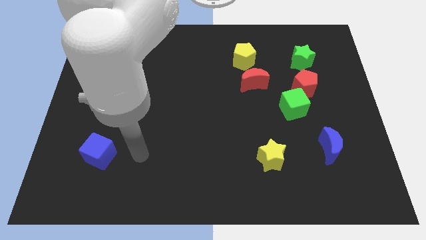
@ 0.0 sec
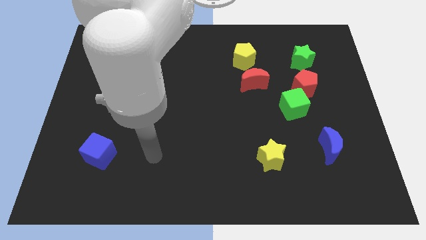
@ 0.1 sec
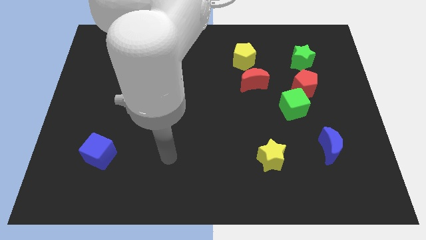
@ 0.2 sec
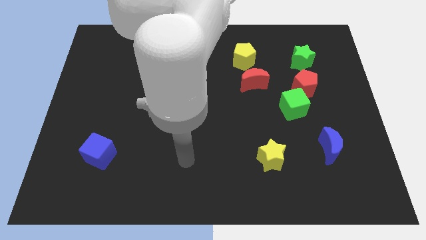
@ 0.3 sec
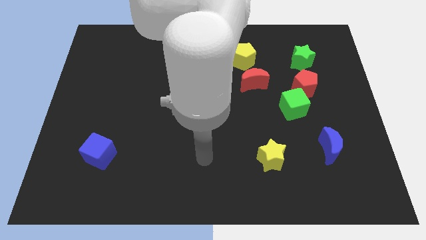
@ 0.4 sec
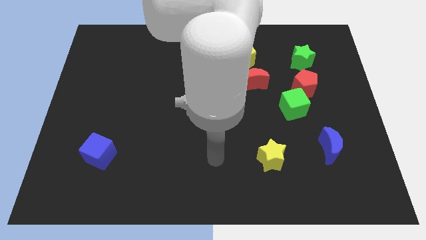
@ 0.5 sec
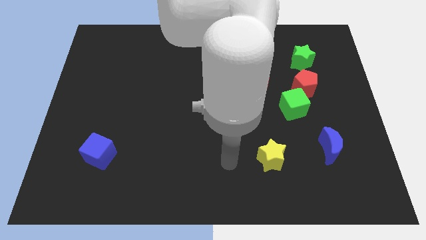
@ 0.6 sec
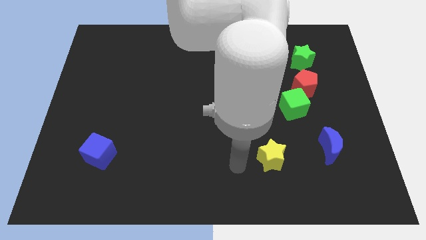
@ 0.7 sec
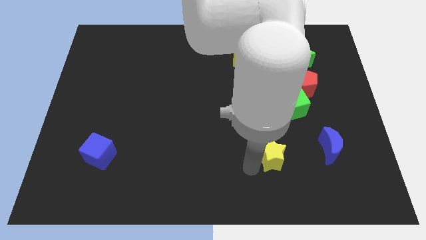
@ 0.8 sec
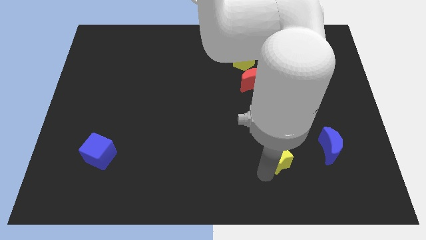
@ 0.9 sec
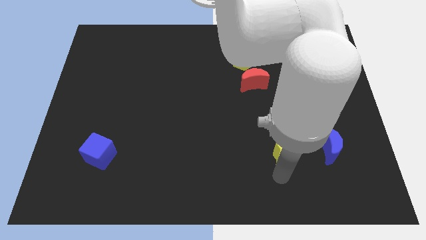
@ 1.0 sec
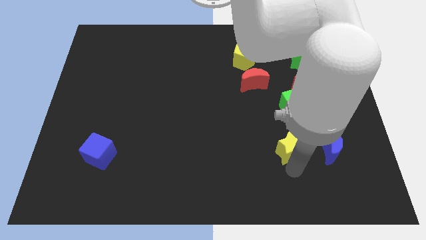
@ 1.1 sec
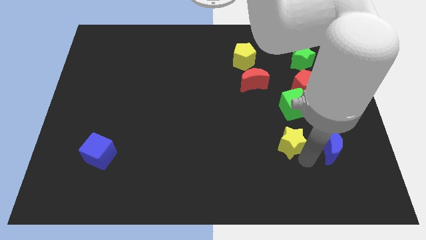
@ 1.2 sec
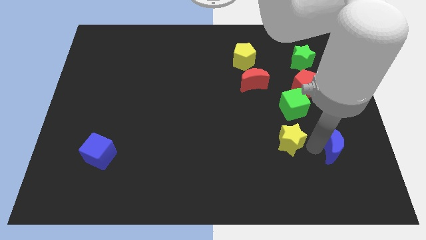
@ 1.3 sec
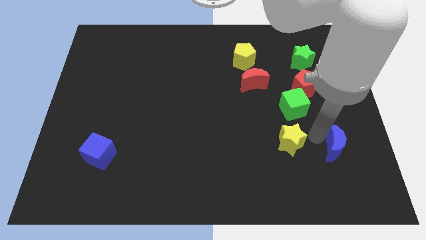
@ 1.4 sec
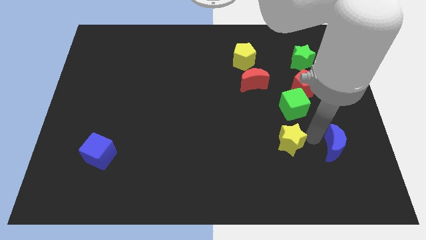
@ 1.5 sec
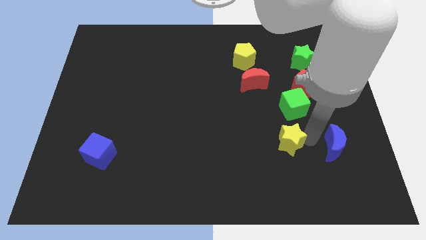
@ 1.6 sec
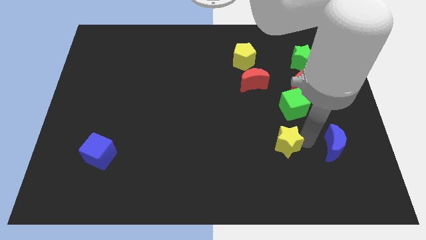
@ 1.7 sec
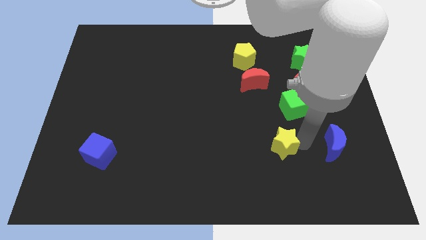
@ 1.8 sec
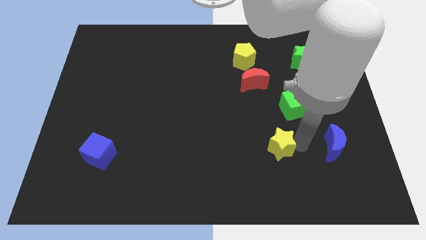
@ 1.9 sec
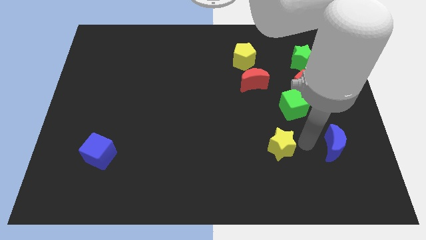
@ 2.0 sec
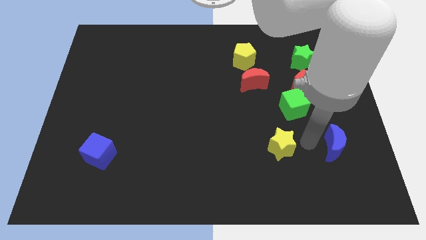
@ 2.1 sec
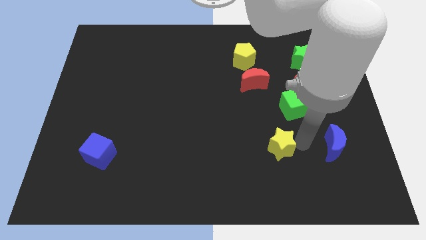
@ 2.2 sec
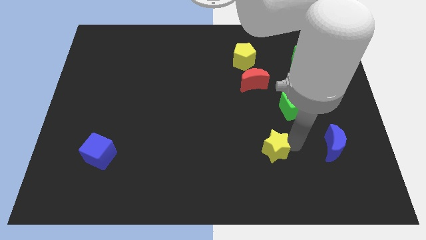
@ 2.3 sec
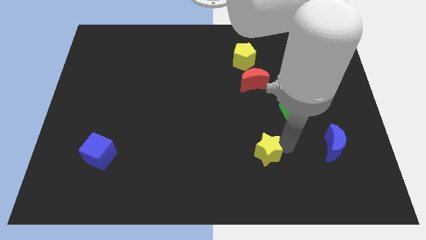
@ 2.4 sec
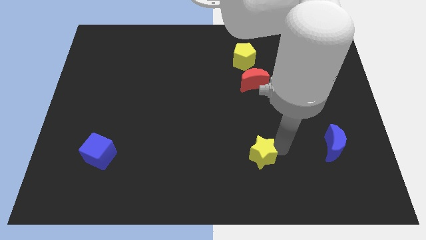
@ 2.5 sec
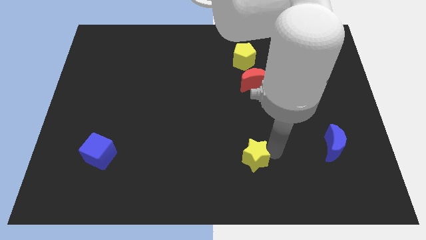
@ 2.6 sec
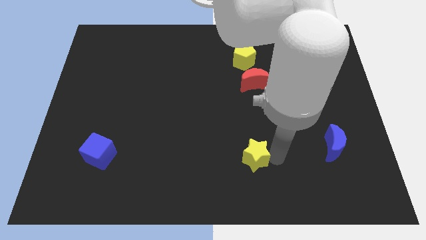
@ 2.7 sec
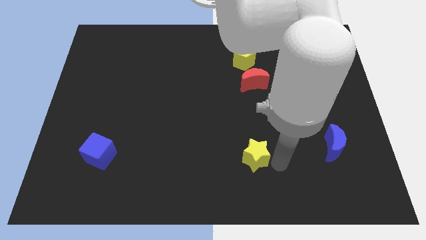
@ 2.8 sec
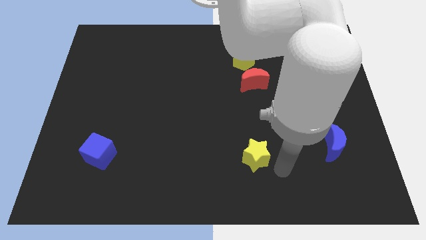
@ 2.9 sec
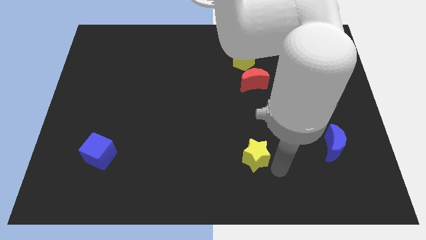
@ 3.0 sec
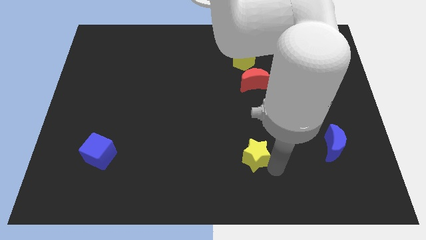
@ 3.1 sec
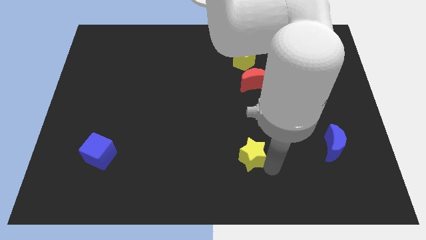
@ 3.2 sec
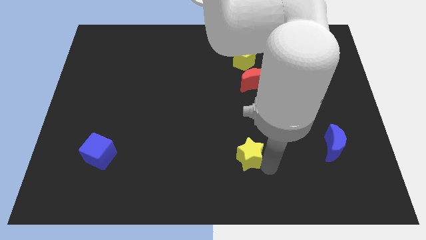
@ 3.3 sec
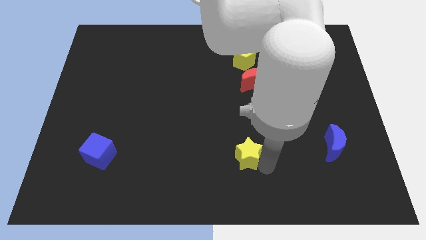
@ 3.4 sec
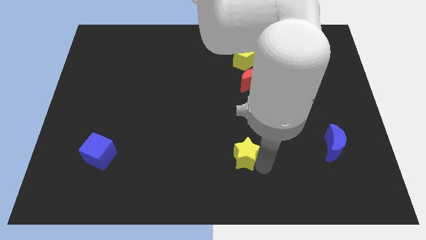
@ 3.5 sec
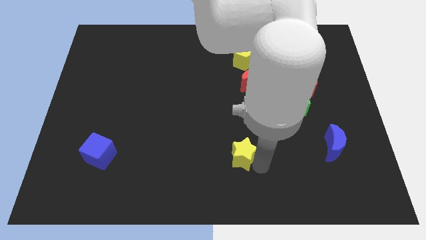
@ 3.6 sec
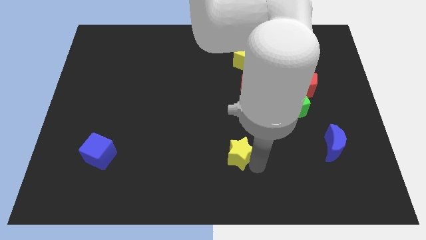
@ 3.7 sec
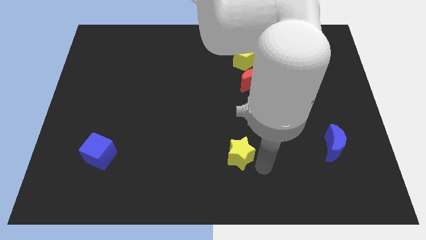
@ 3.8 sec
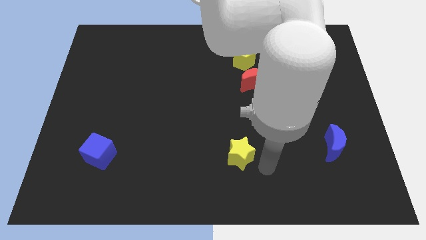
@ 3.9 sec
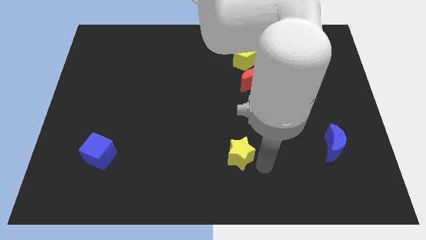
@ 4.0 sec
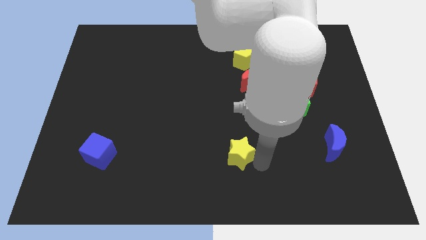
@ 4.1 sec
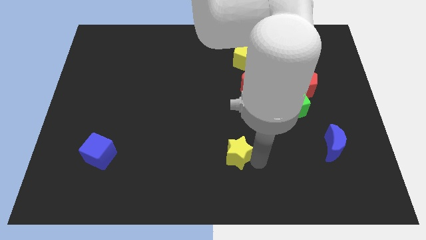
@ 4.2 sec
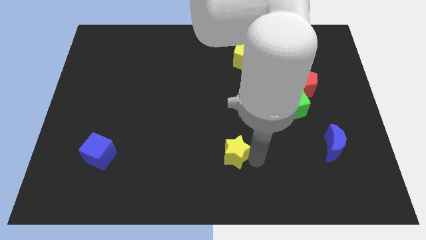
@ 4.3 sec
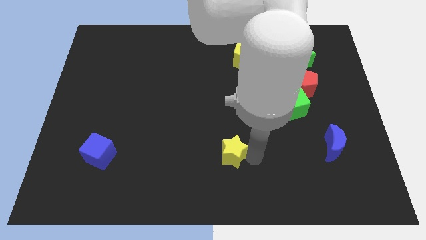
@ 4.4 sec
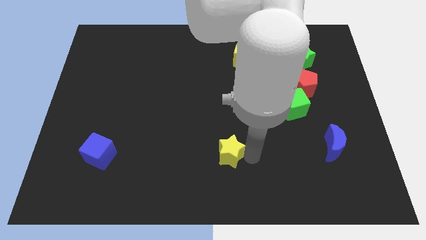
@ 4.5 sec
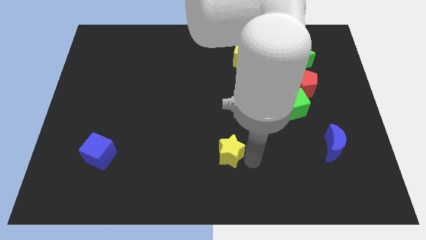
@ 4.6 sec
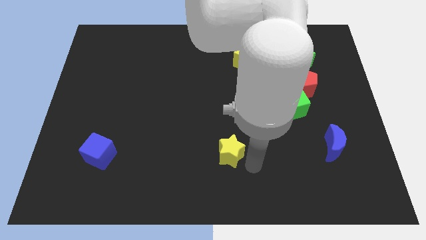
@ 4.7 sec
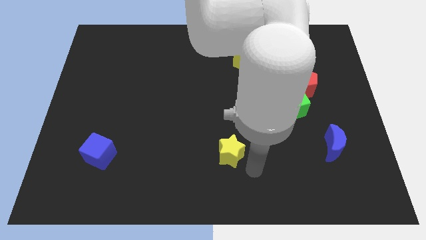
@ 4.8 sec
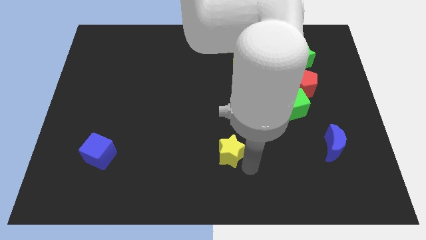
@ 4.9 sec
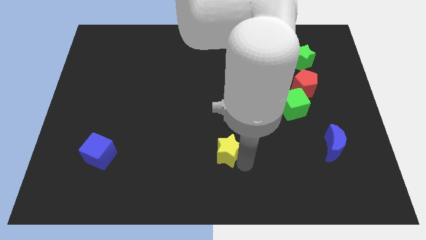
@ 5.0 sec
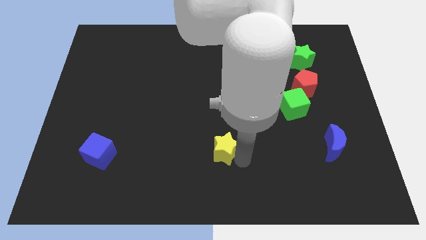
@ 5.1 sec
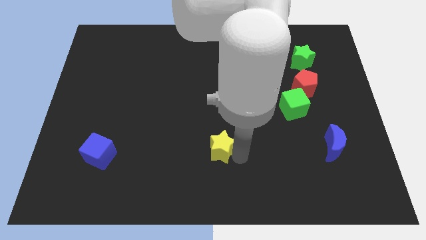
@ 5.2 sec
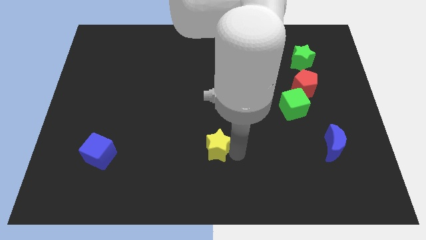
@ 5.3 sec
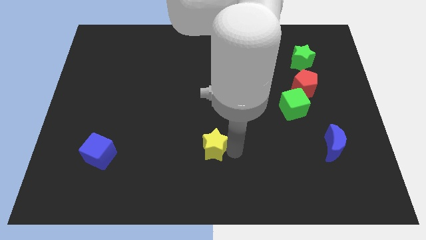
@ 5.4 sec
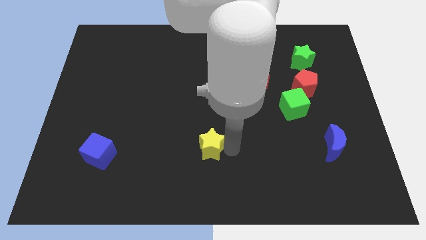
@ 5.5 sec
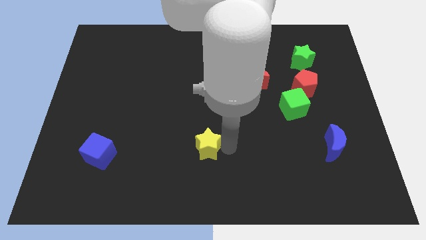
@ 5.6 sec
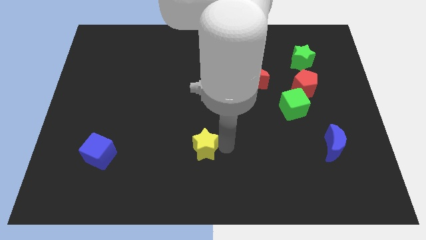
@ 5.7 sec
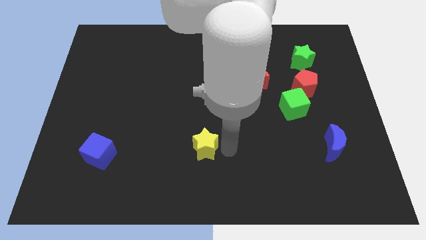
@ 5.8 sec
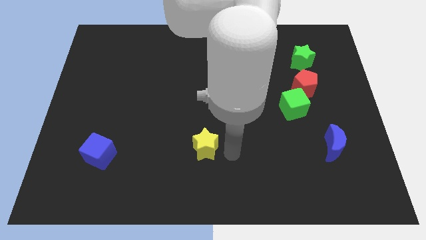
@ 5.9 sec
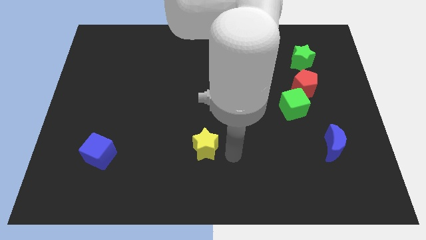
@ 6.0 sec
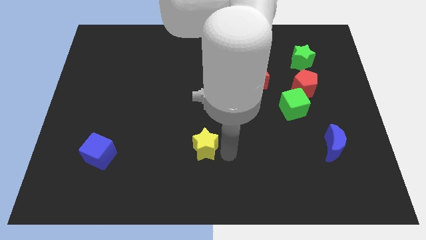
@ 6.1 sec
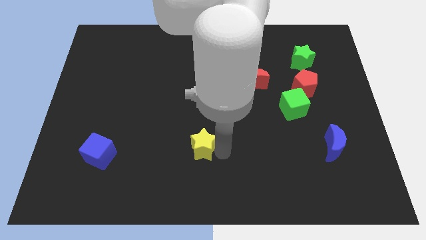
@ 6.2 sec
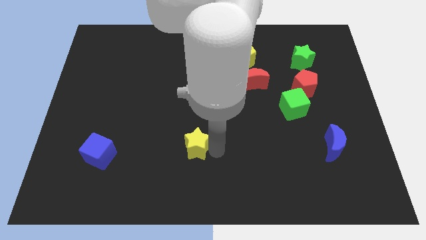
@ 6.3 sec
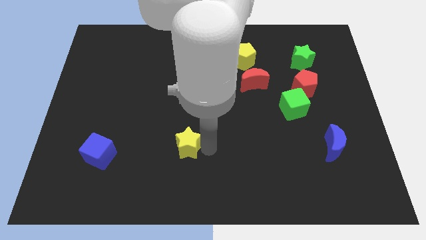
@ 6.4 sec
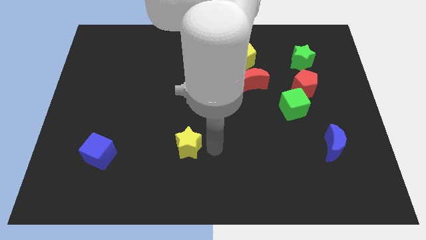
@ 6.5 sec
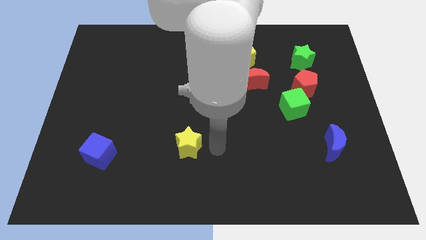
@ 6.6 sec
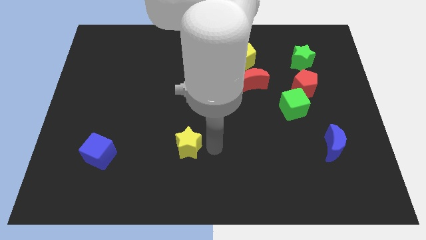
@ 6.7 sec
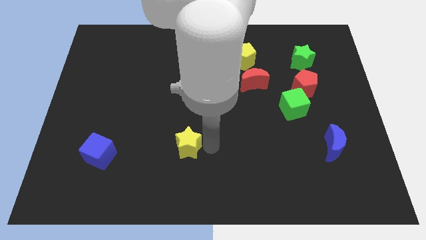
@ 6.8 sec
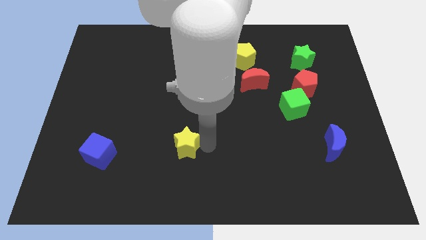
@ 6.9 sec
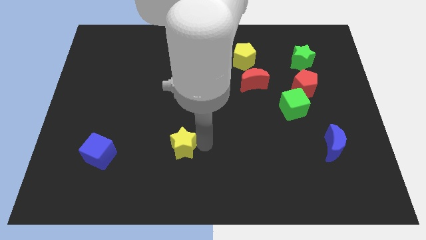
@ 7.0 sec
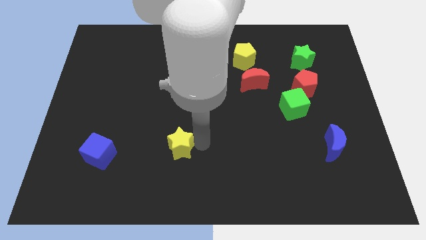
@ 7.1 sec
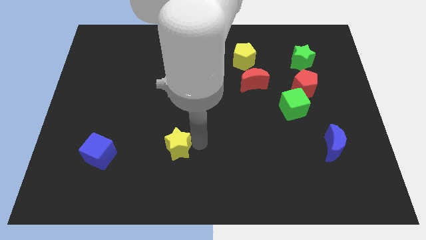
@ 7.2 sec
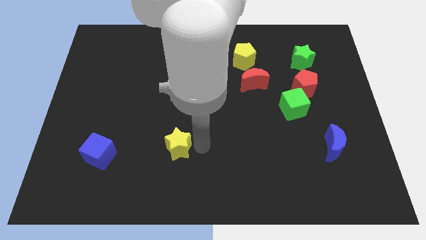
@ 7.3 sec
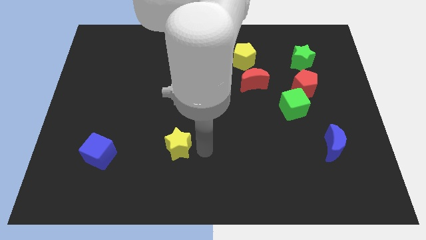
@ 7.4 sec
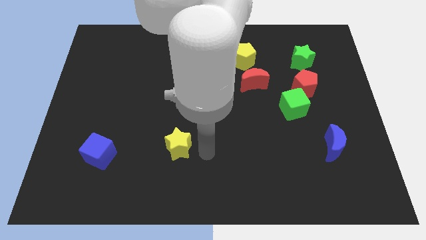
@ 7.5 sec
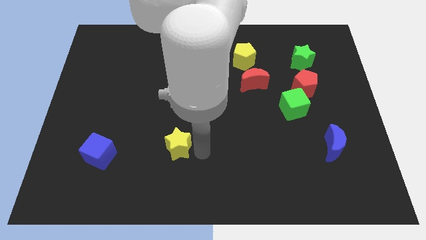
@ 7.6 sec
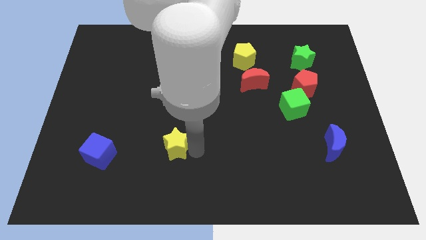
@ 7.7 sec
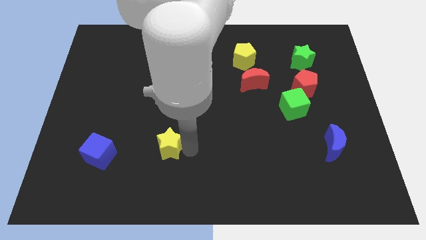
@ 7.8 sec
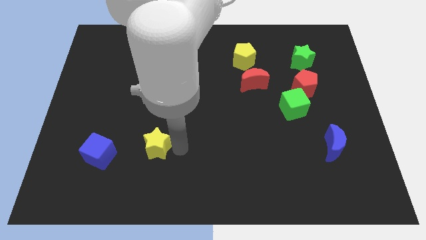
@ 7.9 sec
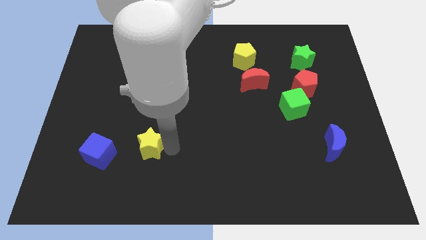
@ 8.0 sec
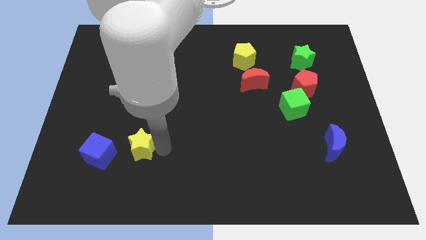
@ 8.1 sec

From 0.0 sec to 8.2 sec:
move the yellow star to the top right side of the blue cube
